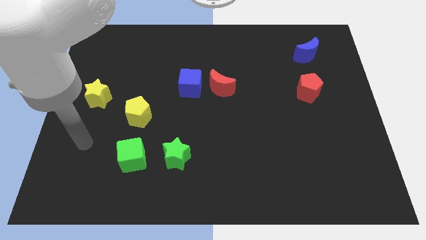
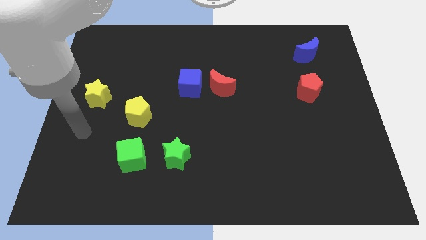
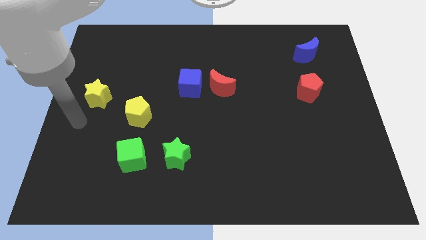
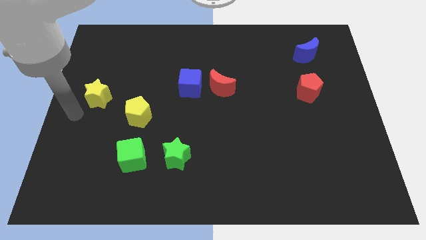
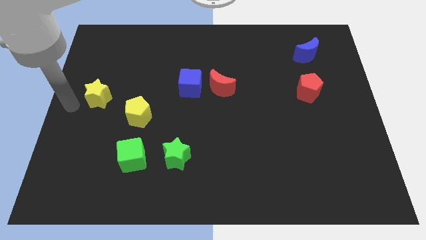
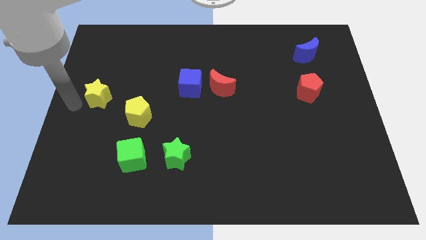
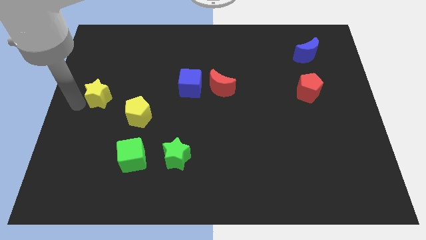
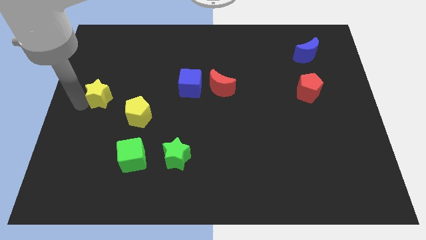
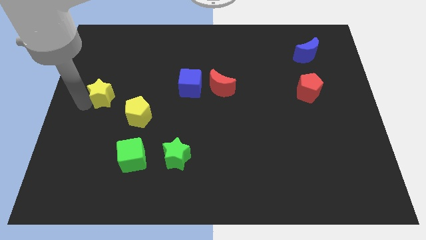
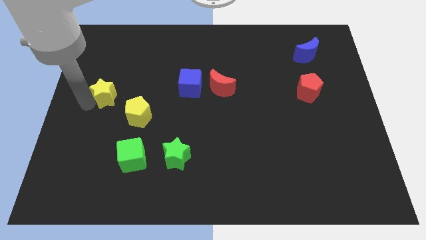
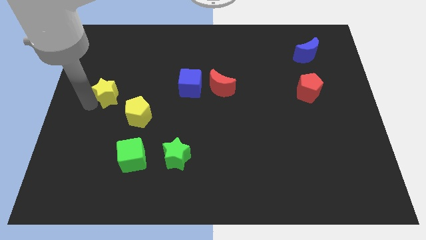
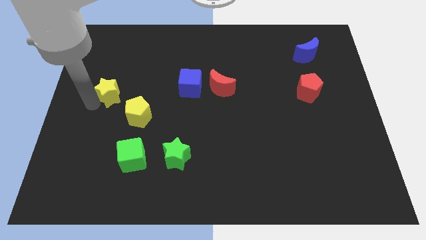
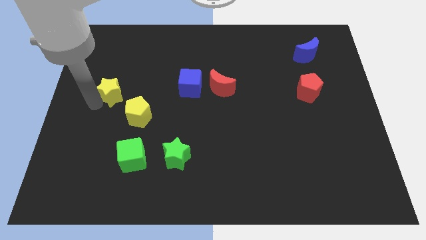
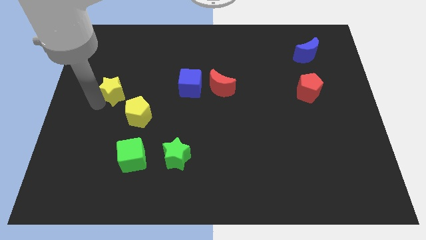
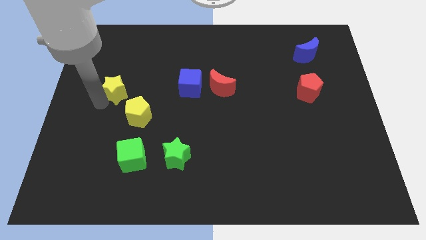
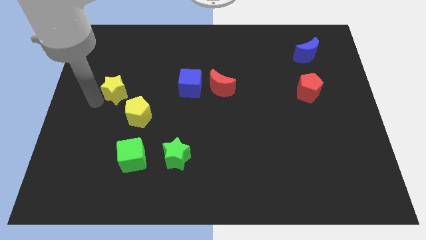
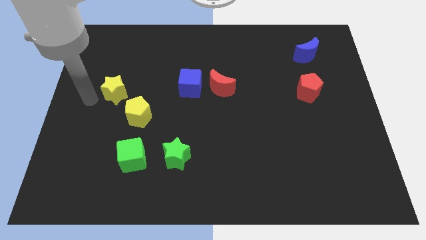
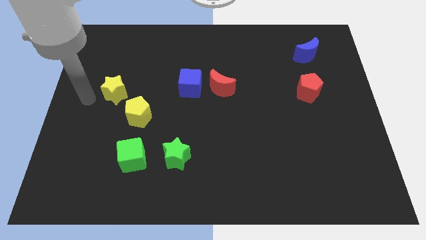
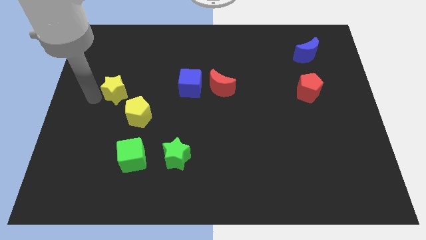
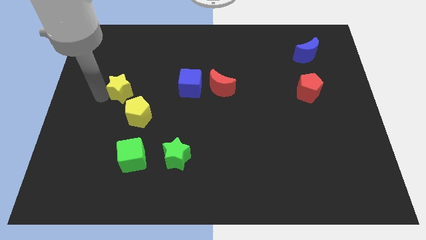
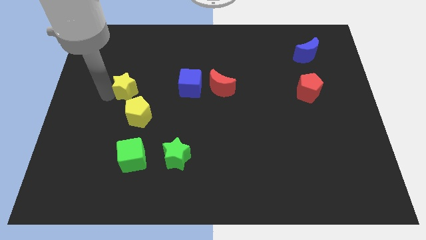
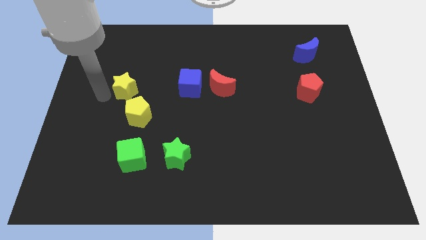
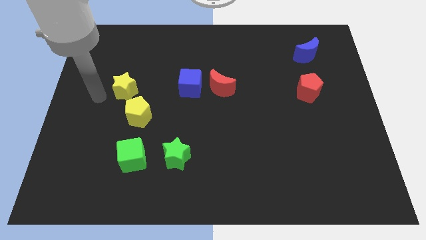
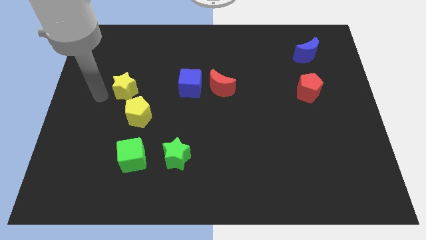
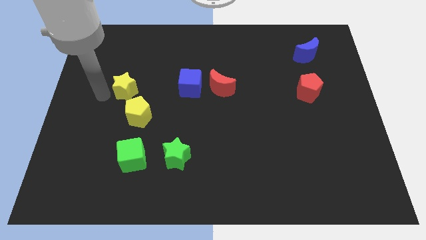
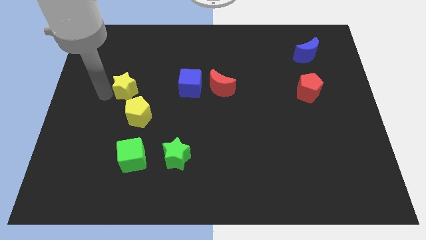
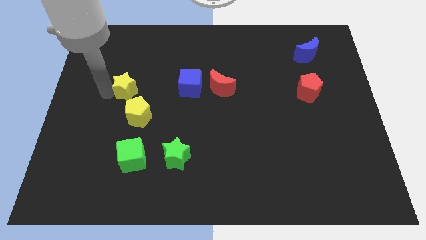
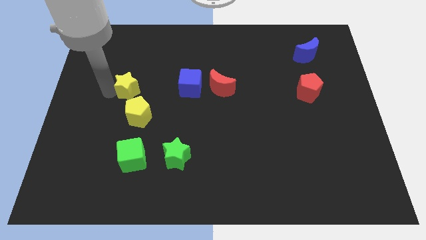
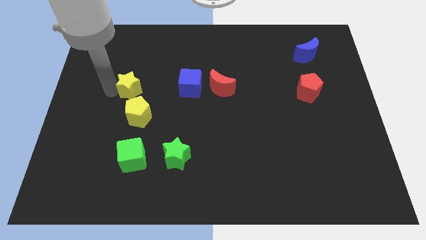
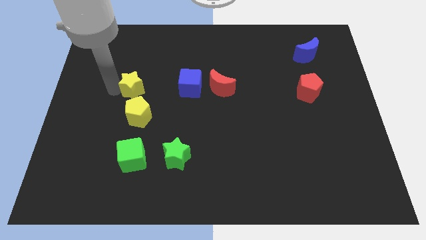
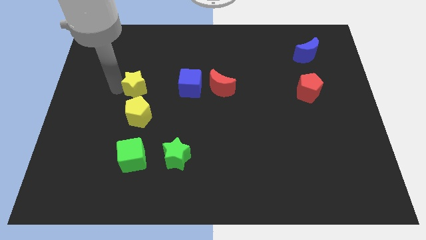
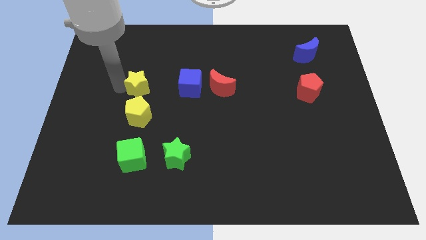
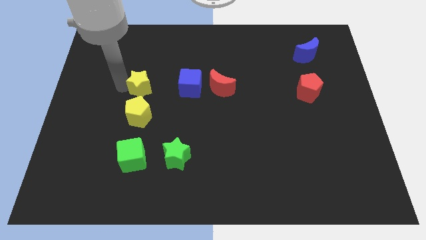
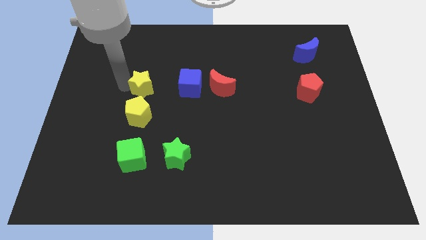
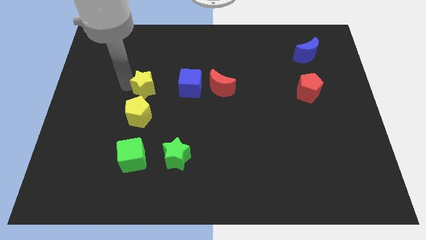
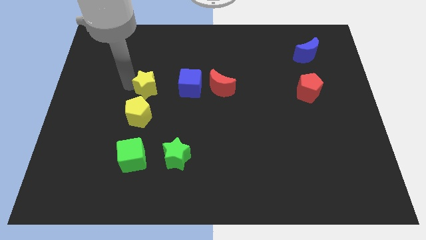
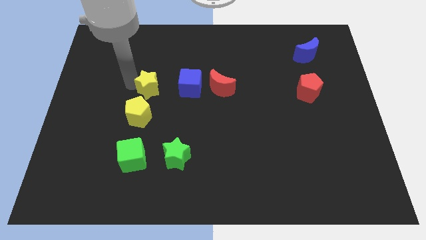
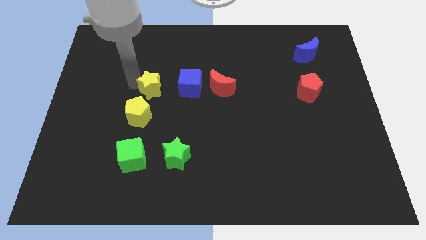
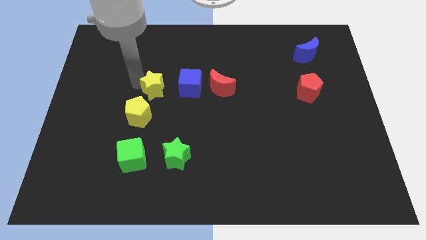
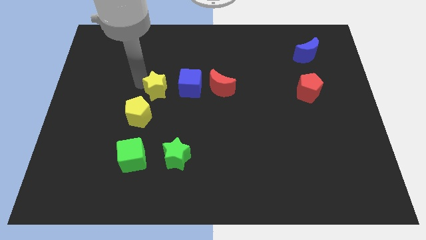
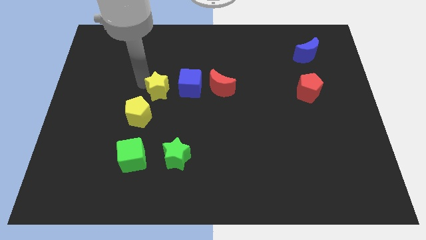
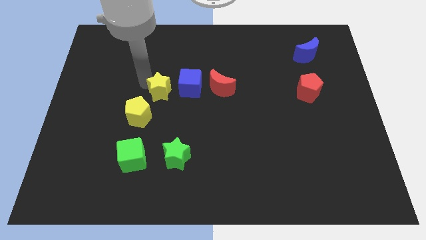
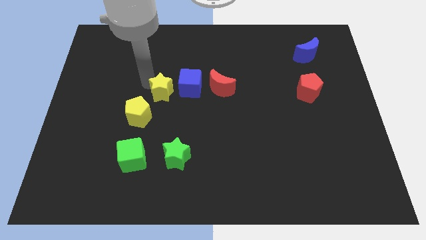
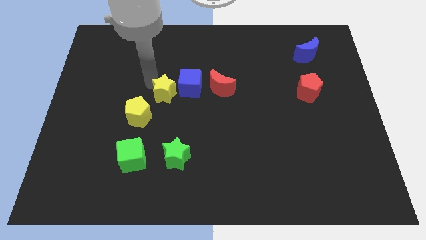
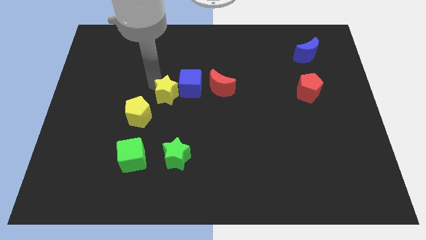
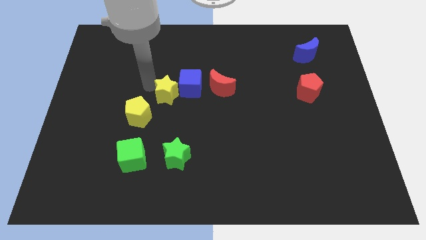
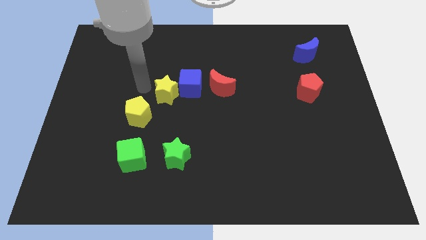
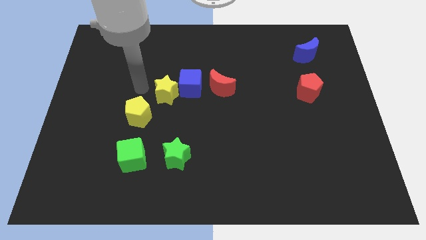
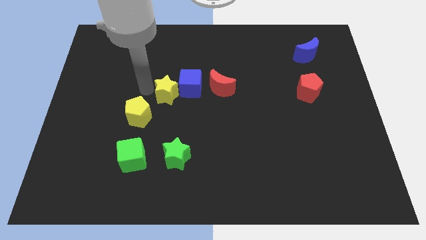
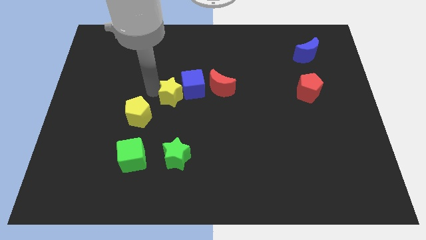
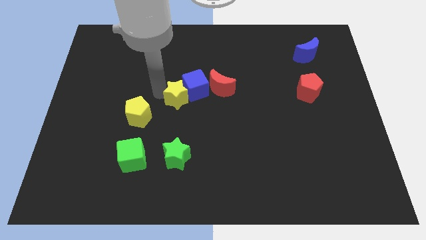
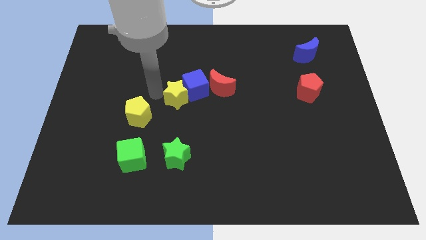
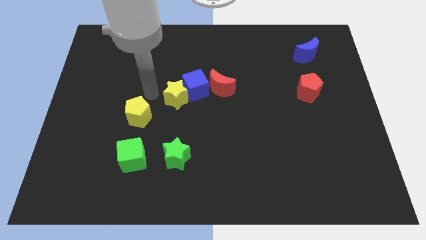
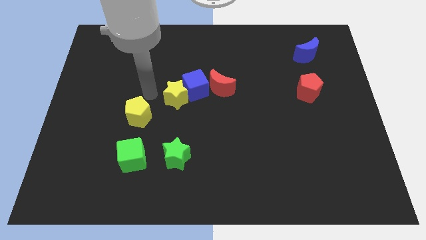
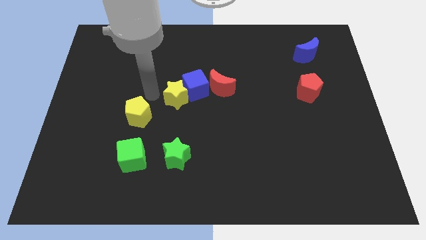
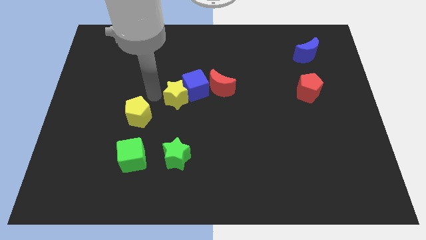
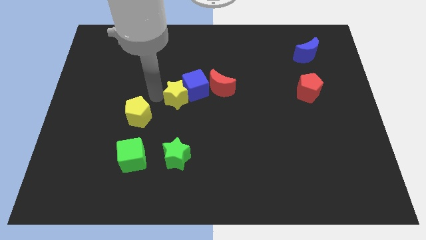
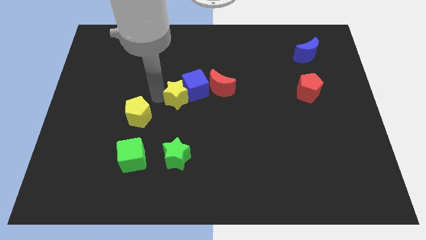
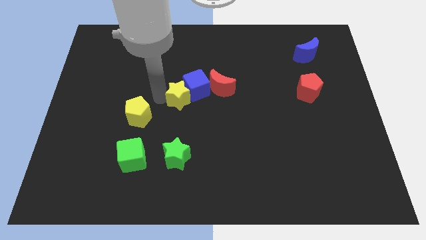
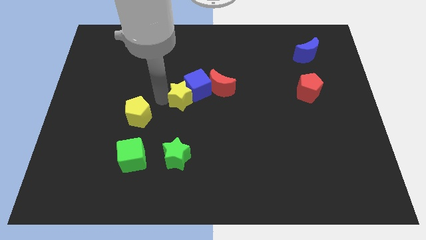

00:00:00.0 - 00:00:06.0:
push the yellow star right

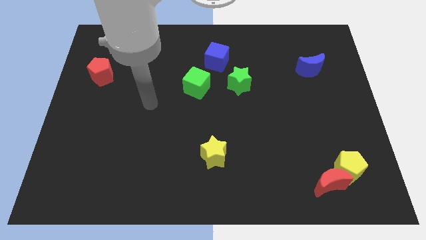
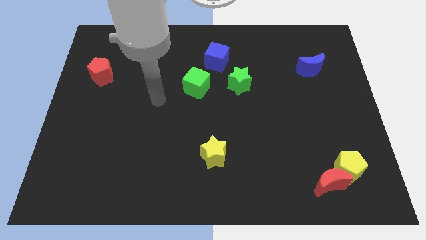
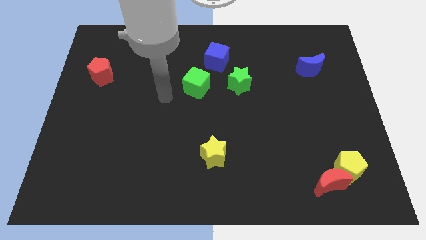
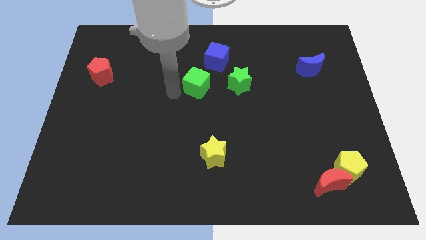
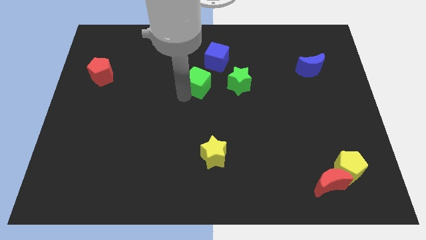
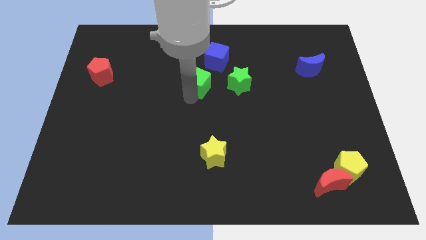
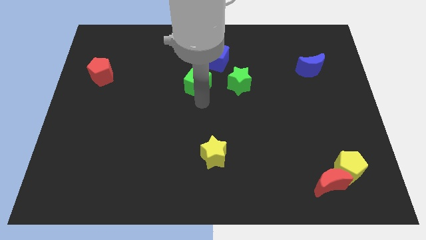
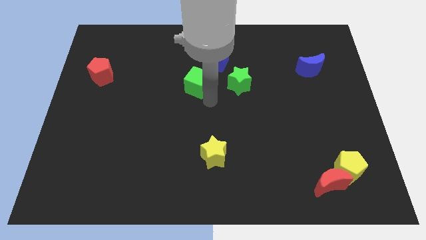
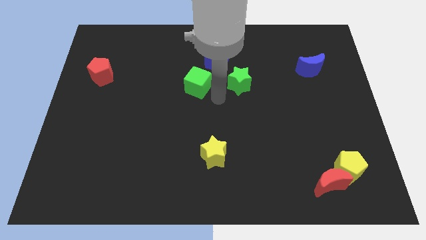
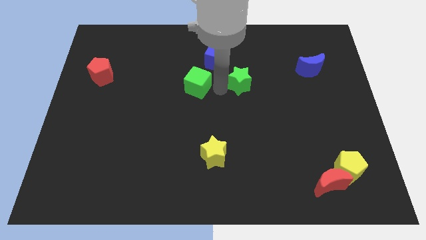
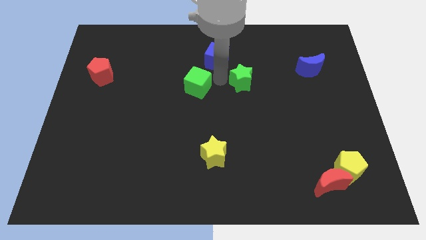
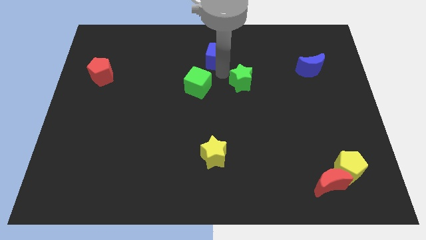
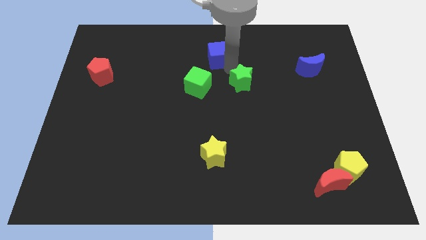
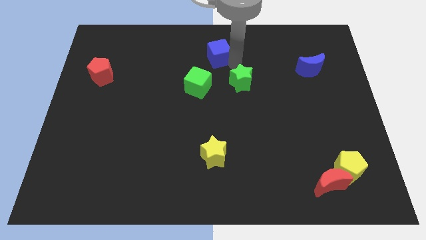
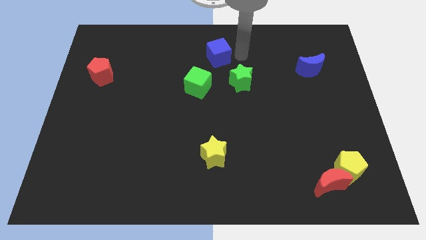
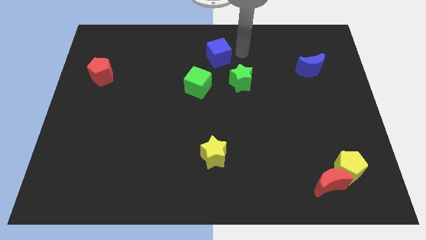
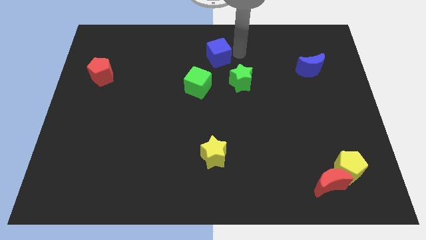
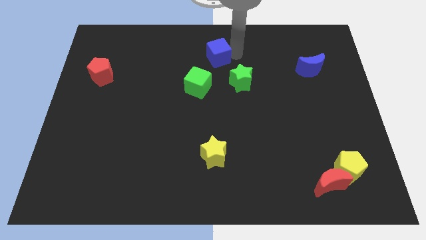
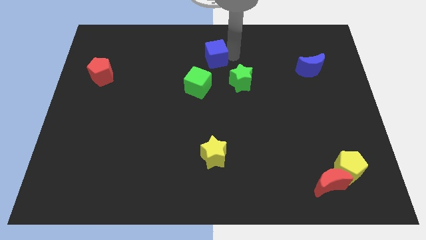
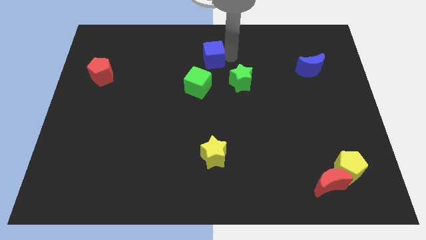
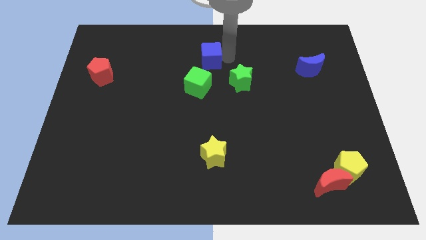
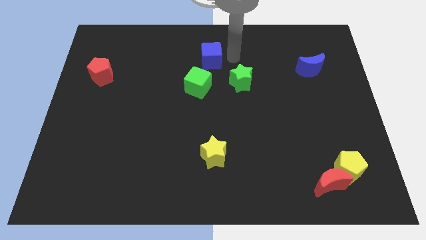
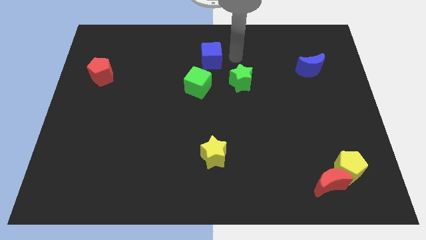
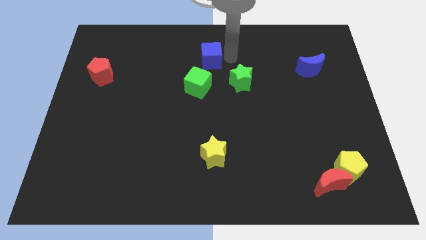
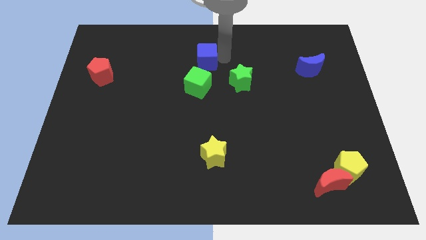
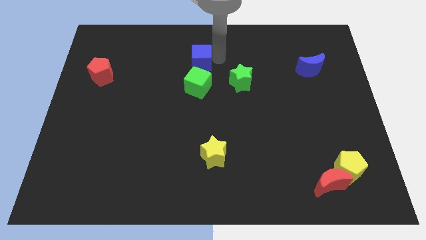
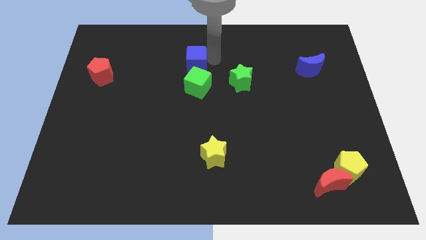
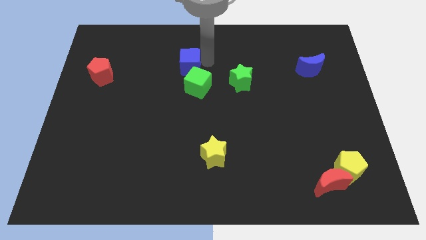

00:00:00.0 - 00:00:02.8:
move the blue cube a little left
